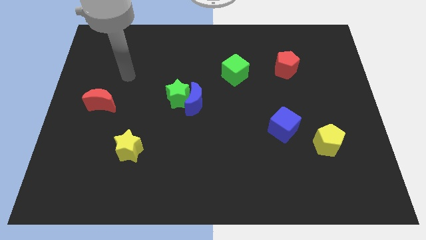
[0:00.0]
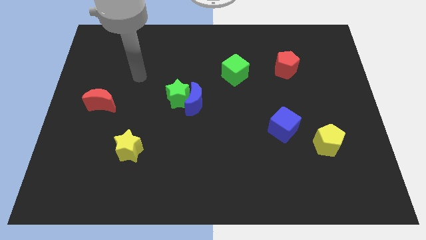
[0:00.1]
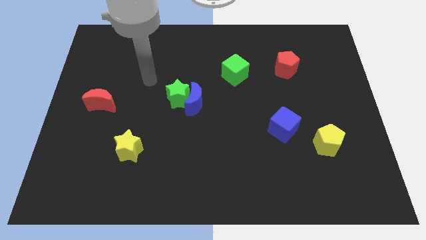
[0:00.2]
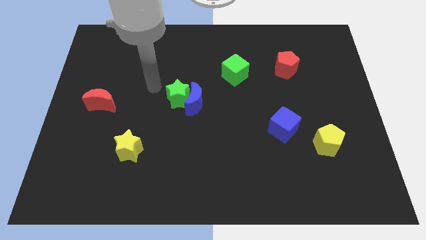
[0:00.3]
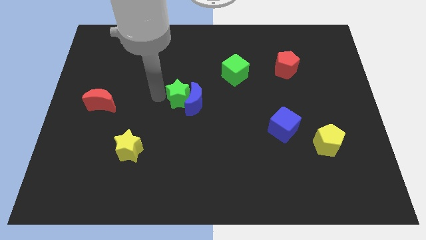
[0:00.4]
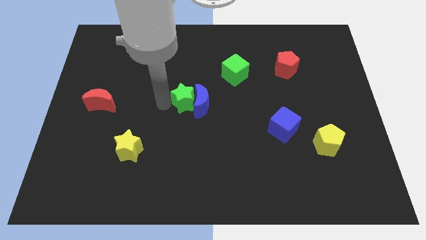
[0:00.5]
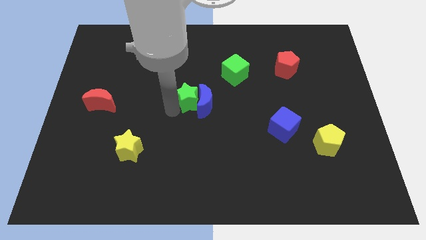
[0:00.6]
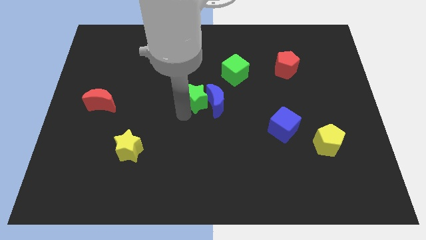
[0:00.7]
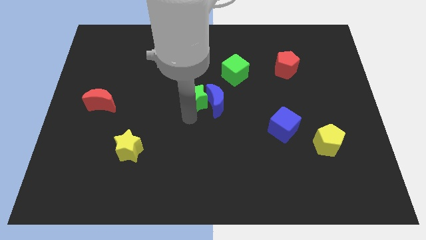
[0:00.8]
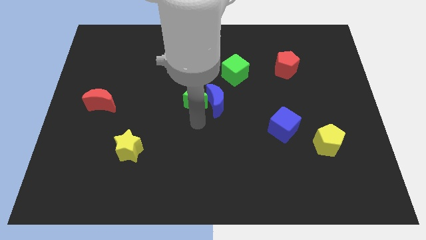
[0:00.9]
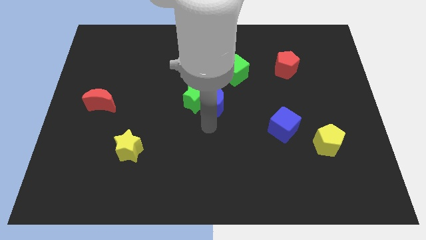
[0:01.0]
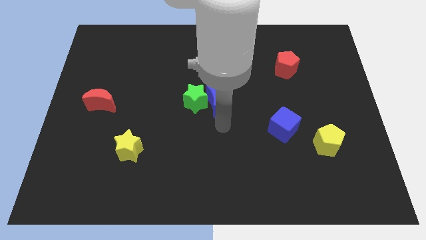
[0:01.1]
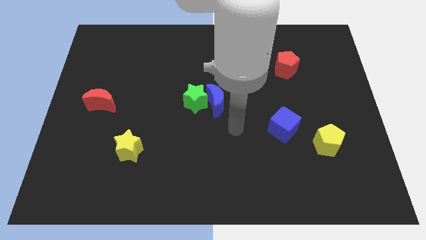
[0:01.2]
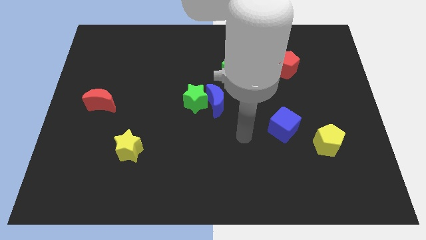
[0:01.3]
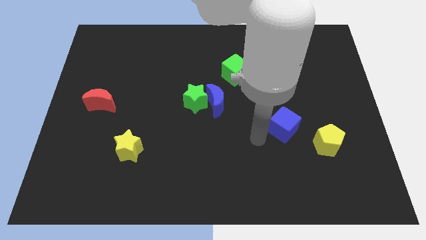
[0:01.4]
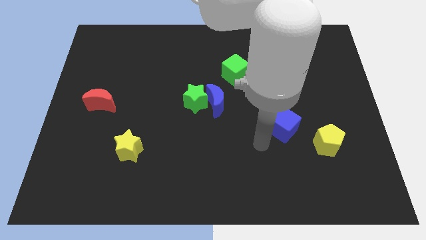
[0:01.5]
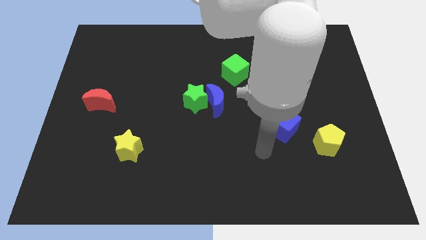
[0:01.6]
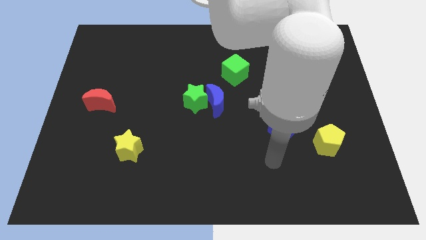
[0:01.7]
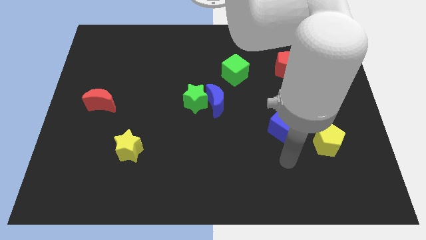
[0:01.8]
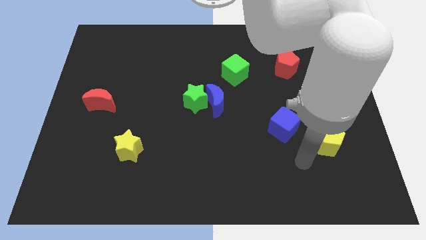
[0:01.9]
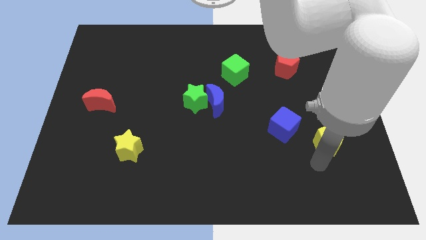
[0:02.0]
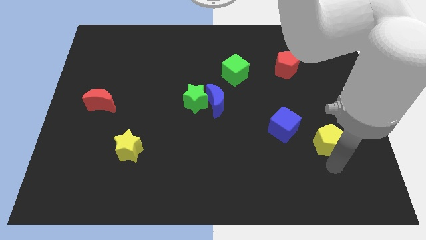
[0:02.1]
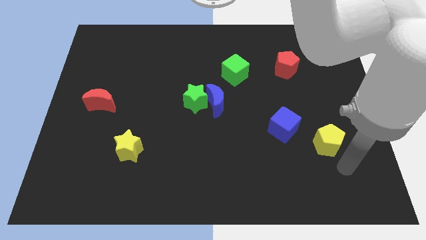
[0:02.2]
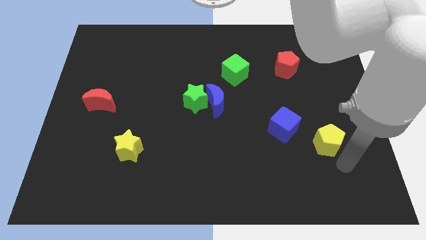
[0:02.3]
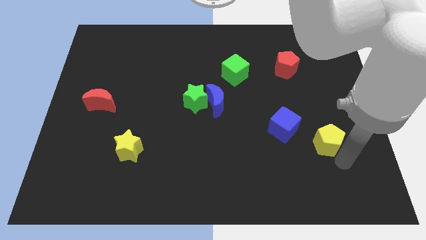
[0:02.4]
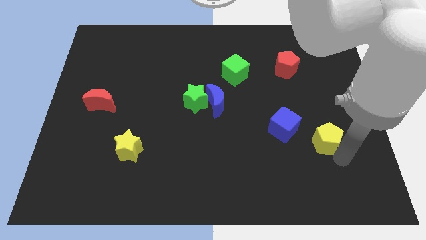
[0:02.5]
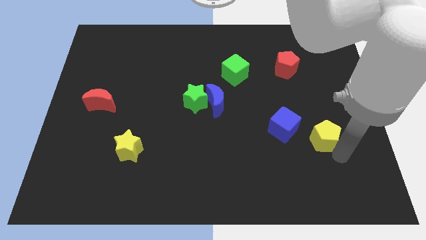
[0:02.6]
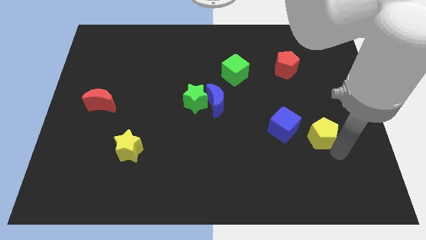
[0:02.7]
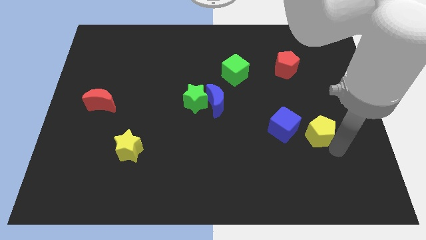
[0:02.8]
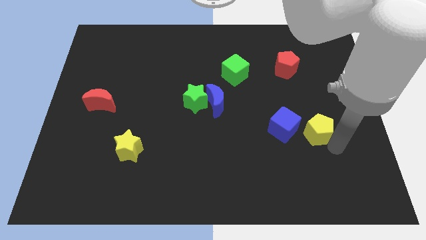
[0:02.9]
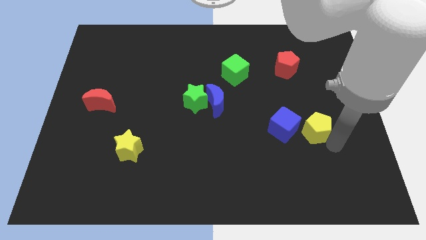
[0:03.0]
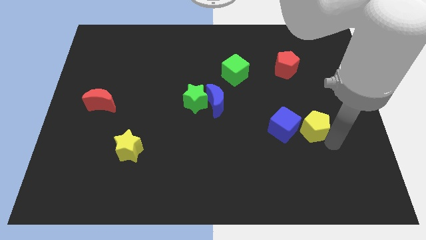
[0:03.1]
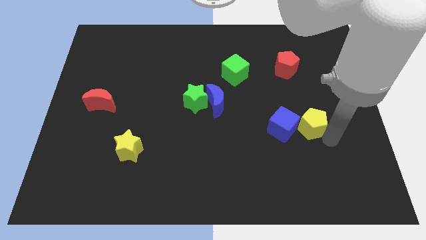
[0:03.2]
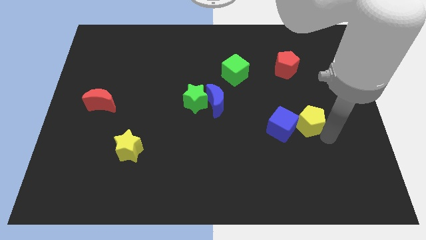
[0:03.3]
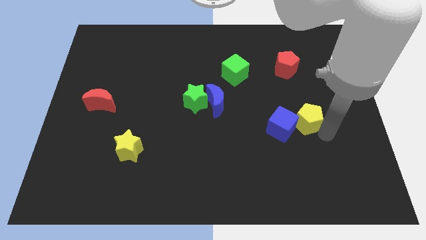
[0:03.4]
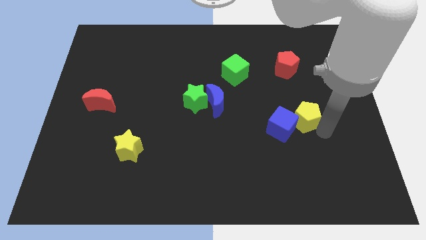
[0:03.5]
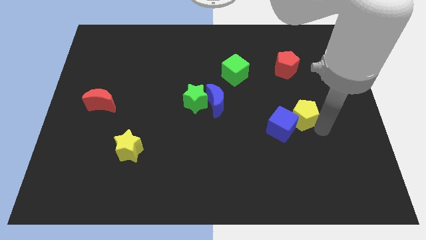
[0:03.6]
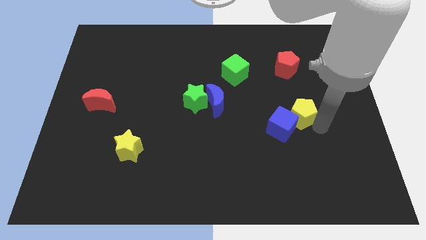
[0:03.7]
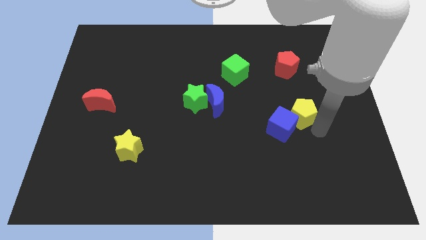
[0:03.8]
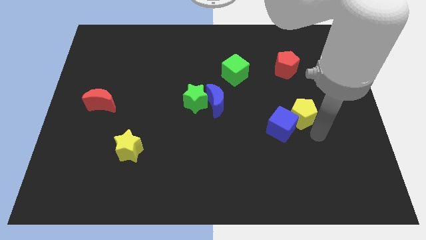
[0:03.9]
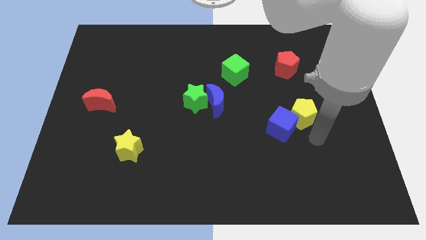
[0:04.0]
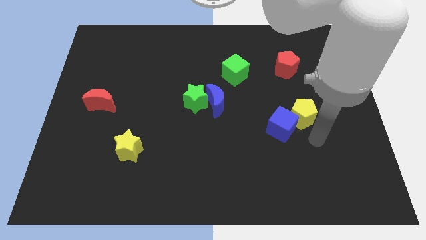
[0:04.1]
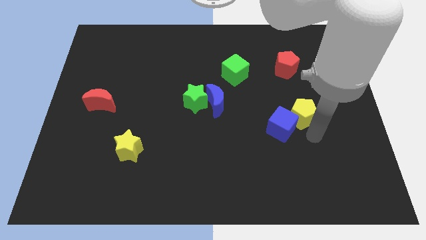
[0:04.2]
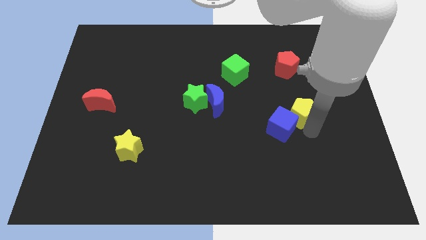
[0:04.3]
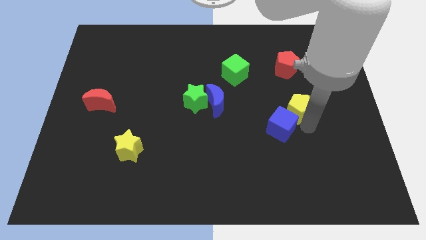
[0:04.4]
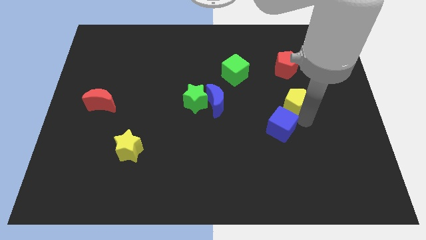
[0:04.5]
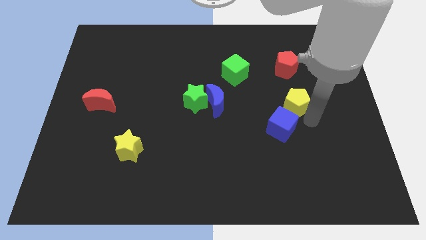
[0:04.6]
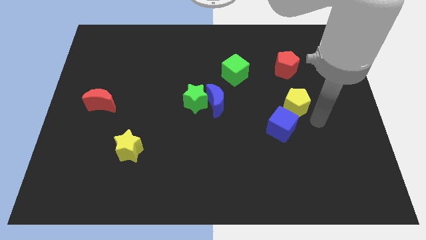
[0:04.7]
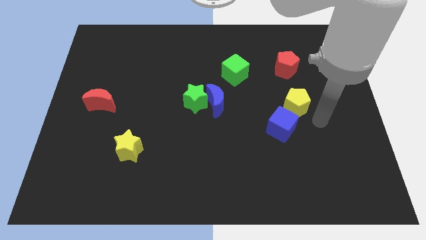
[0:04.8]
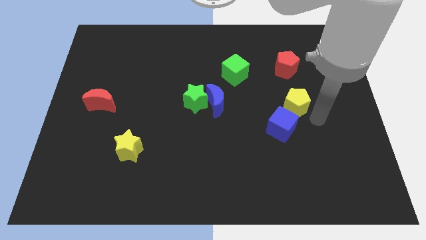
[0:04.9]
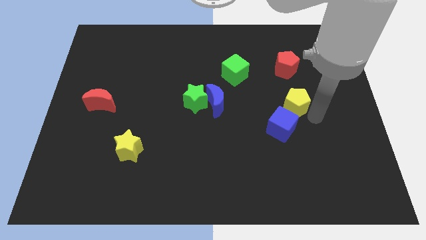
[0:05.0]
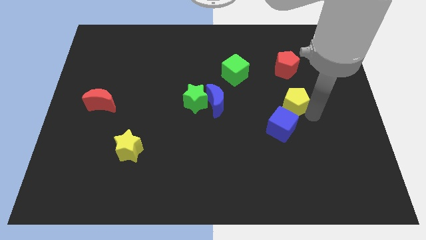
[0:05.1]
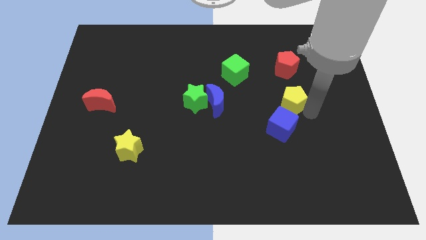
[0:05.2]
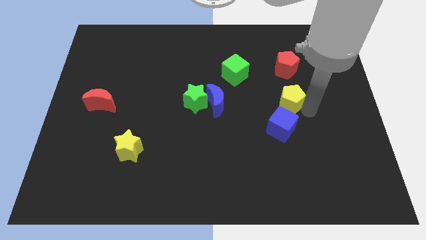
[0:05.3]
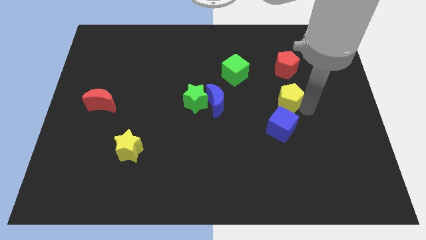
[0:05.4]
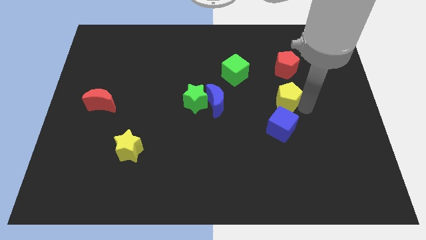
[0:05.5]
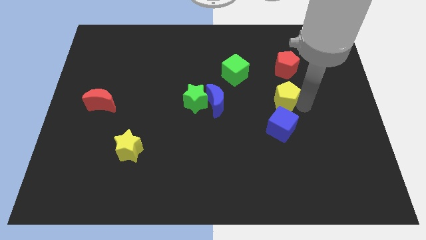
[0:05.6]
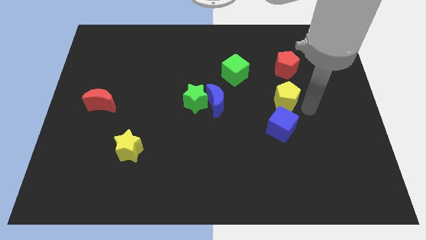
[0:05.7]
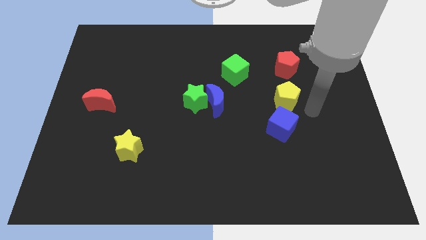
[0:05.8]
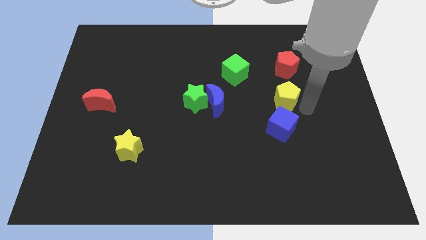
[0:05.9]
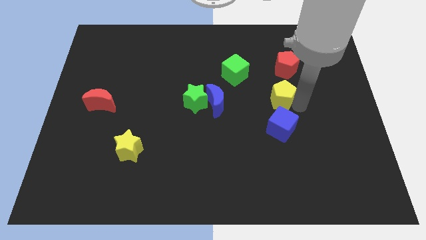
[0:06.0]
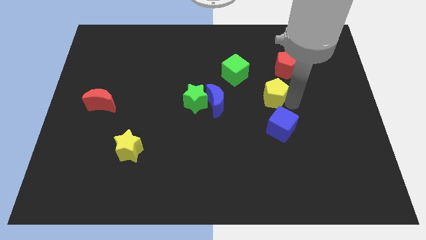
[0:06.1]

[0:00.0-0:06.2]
slide the yellow pentagon diagonally down and to the right of the green cube

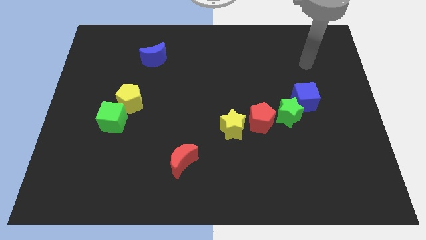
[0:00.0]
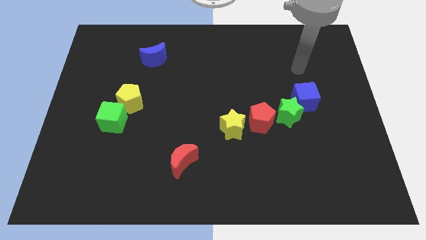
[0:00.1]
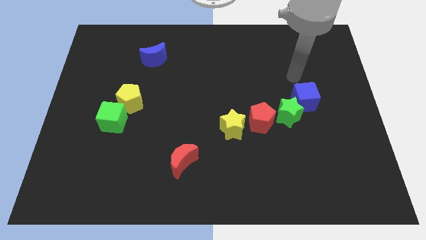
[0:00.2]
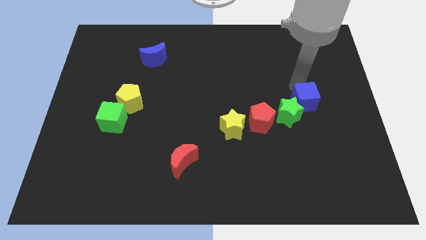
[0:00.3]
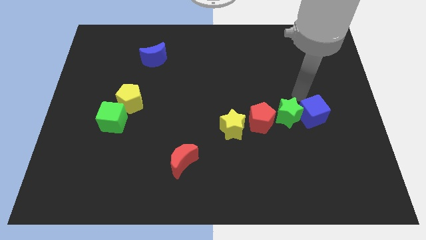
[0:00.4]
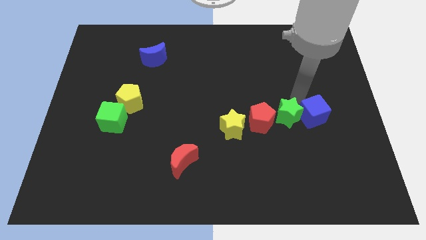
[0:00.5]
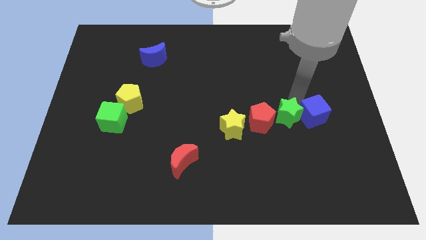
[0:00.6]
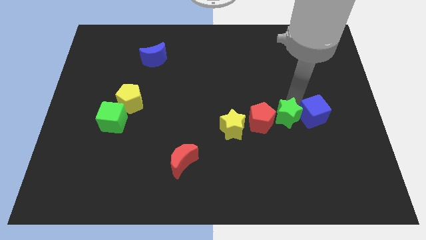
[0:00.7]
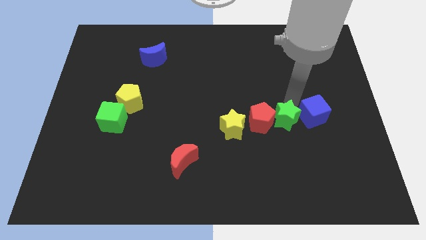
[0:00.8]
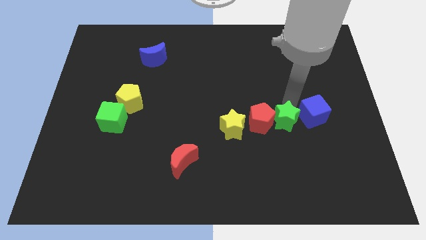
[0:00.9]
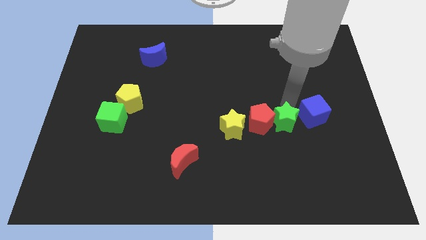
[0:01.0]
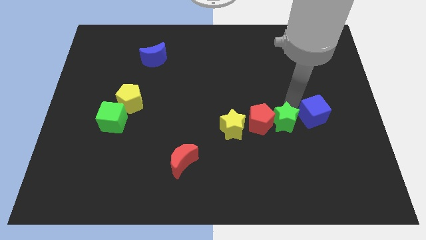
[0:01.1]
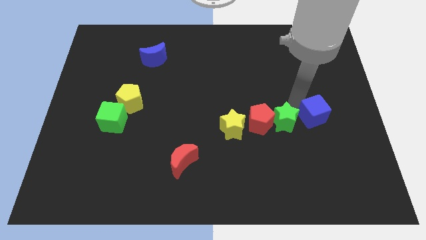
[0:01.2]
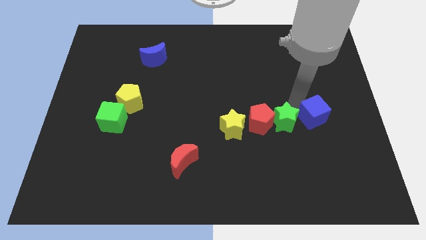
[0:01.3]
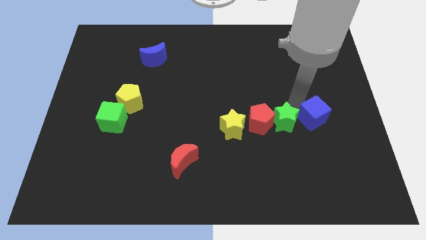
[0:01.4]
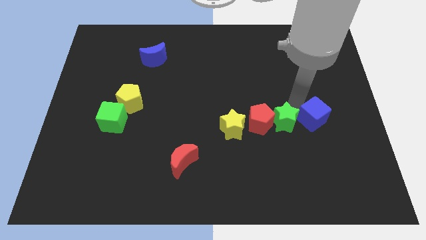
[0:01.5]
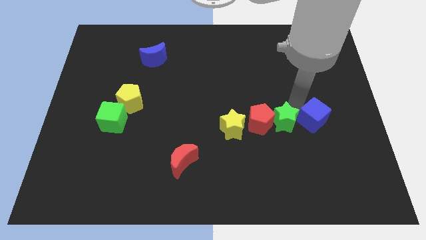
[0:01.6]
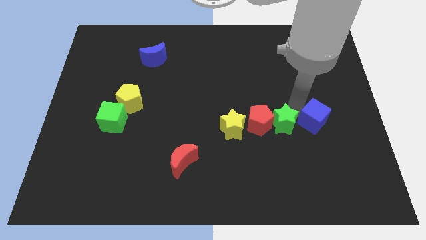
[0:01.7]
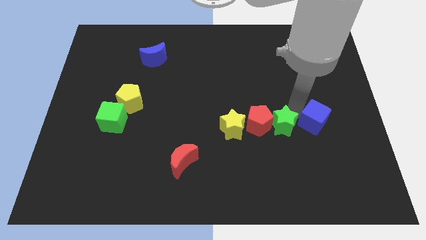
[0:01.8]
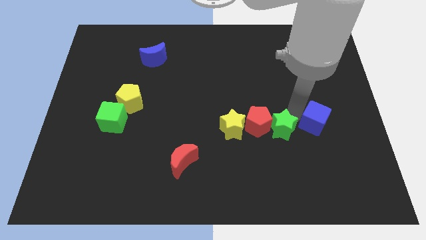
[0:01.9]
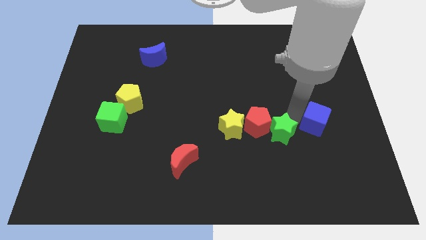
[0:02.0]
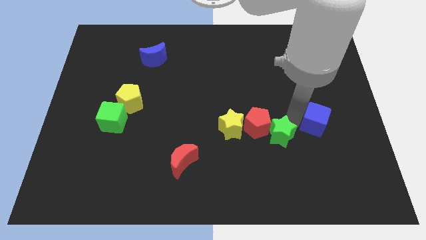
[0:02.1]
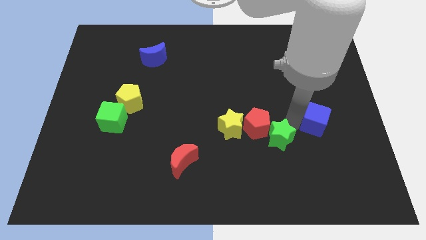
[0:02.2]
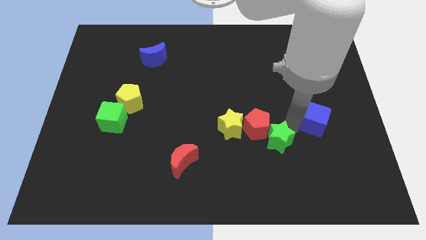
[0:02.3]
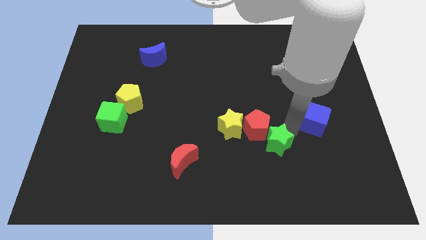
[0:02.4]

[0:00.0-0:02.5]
slide the green star to the bottom right of the yellow star
